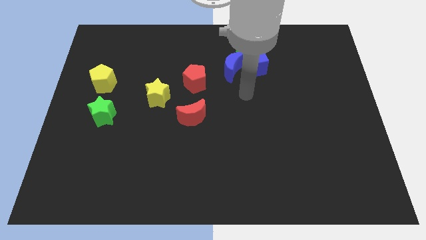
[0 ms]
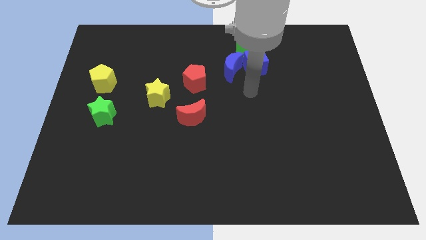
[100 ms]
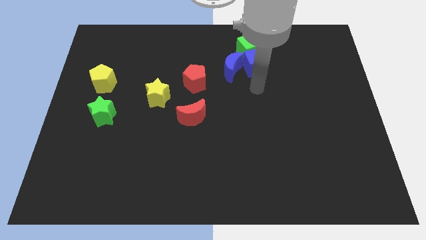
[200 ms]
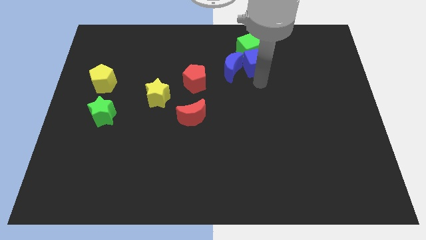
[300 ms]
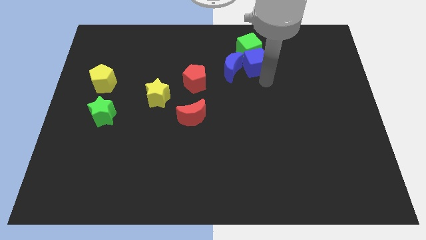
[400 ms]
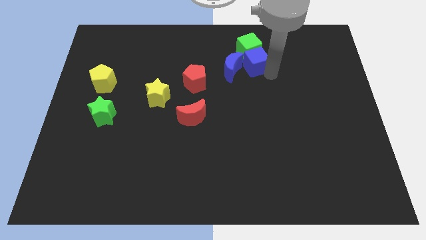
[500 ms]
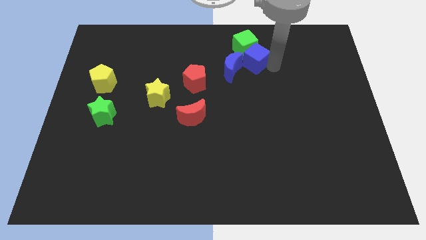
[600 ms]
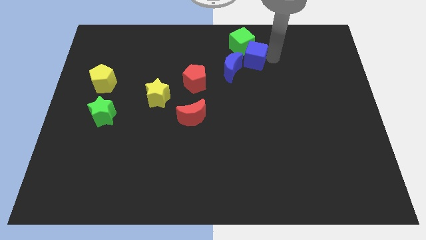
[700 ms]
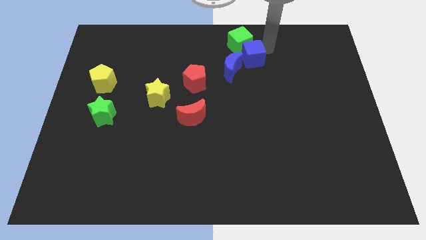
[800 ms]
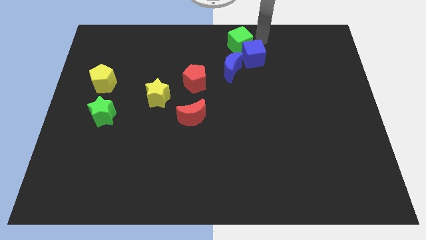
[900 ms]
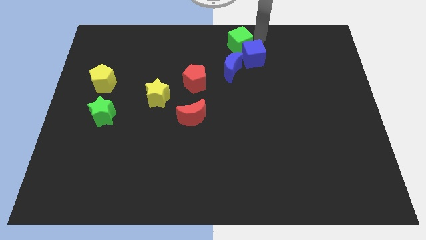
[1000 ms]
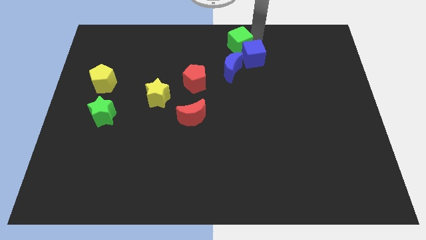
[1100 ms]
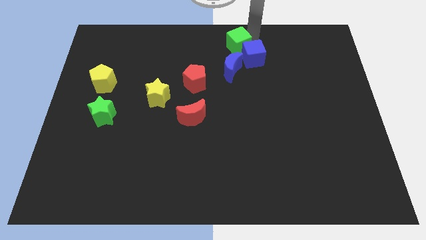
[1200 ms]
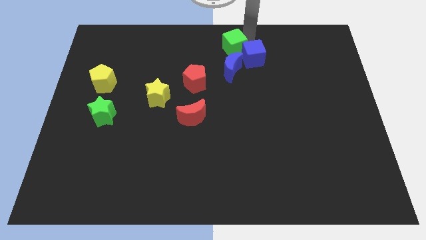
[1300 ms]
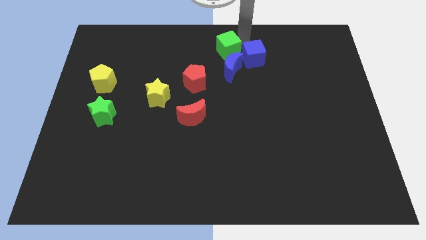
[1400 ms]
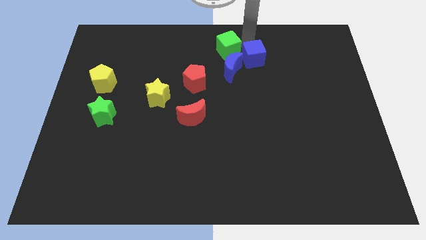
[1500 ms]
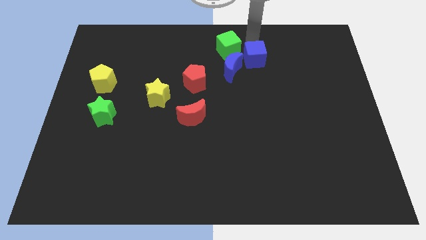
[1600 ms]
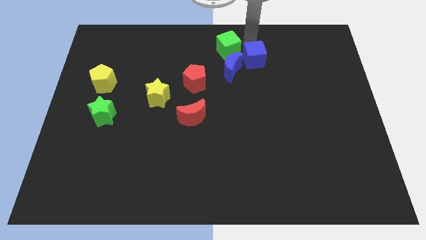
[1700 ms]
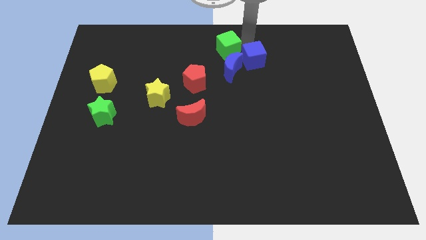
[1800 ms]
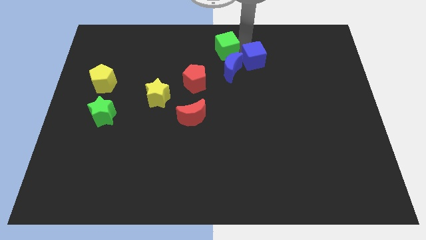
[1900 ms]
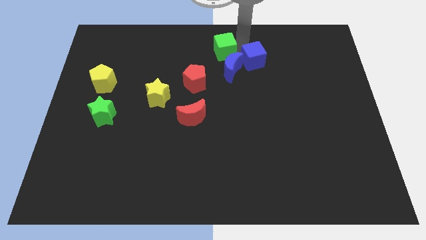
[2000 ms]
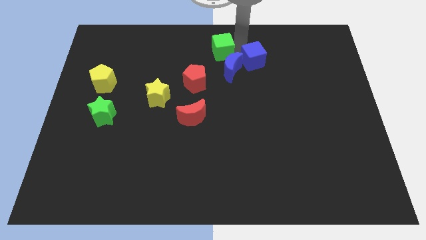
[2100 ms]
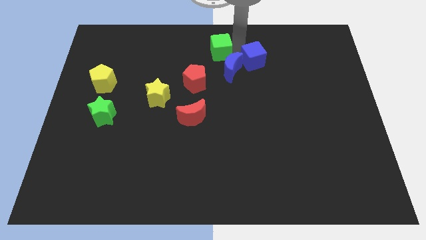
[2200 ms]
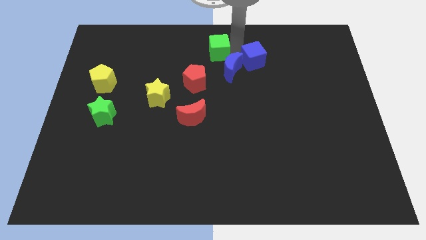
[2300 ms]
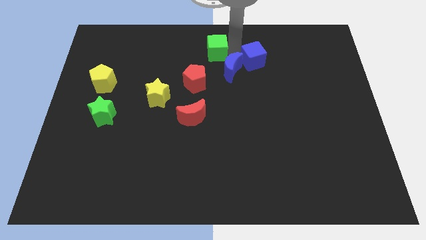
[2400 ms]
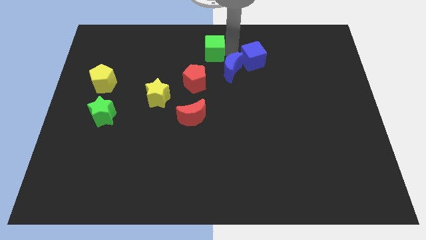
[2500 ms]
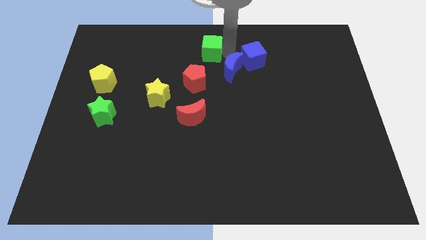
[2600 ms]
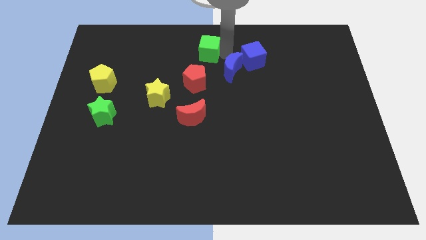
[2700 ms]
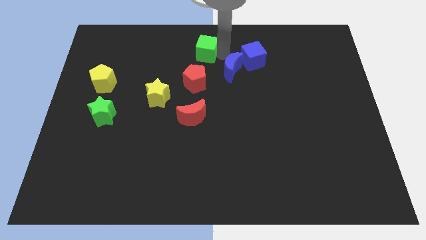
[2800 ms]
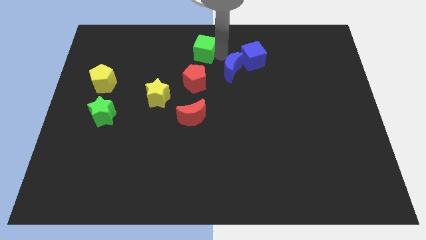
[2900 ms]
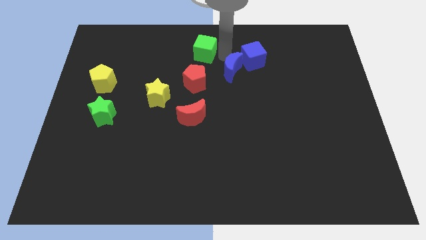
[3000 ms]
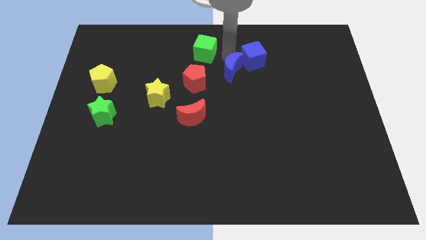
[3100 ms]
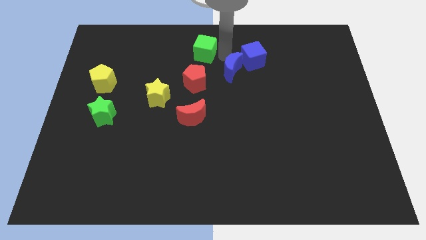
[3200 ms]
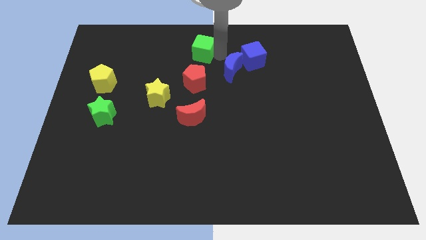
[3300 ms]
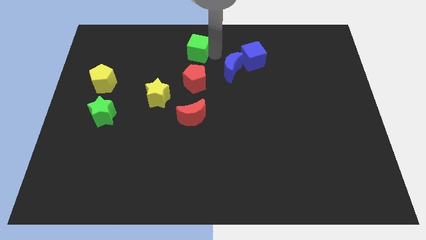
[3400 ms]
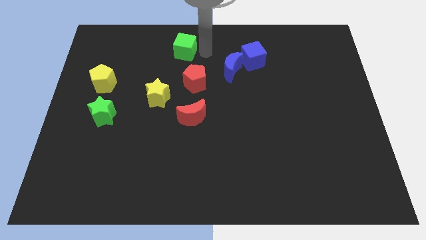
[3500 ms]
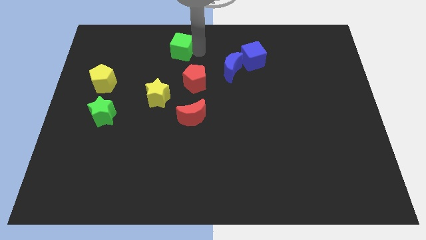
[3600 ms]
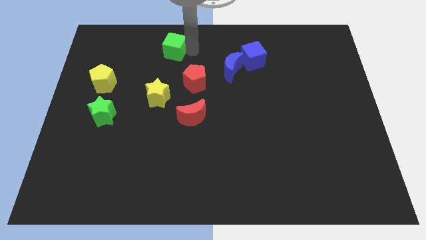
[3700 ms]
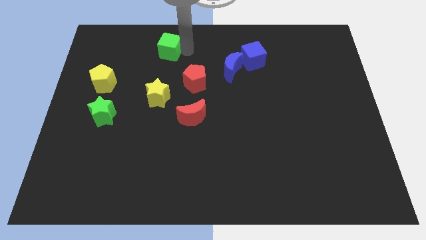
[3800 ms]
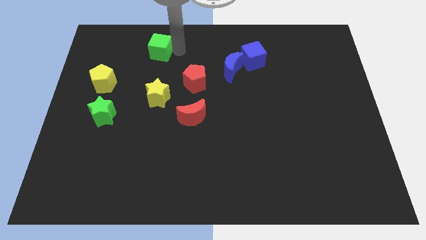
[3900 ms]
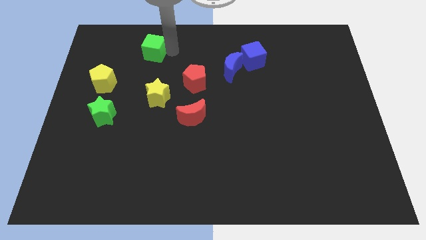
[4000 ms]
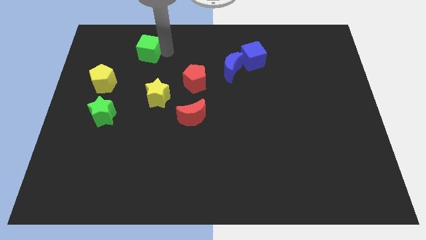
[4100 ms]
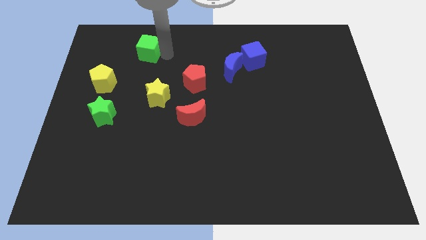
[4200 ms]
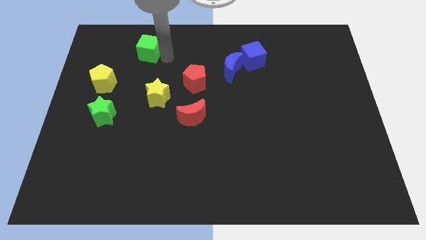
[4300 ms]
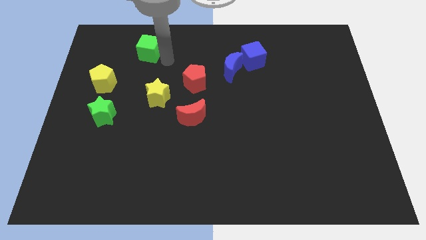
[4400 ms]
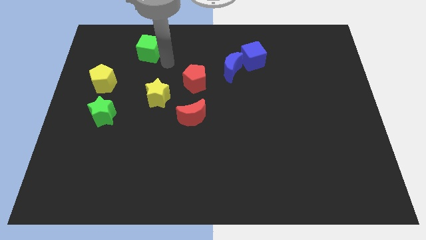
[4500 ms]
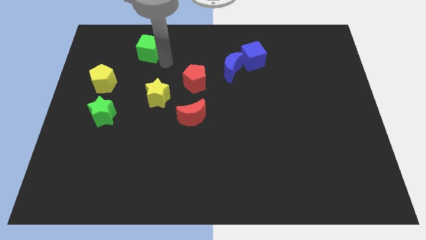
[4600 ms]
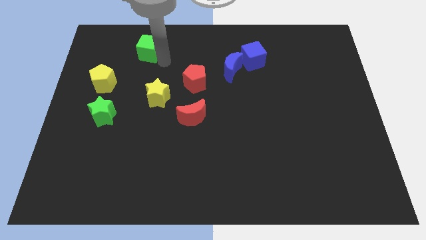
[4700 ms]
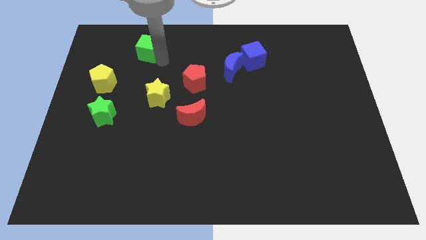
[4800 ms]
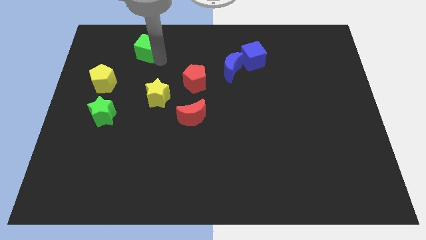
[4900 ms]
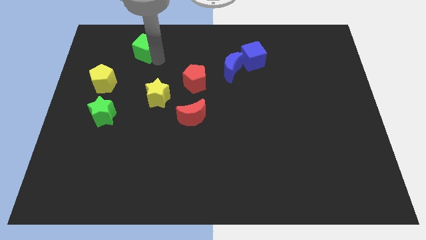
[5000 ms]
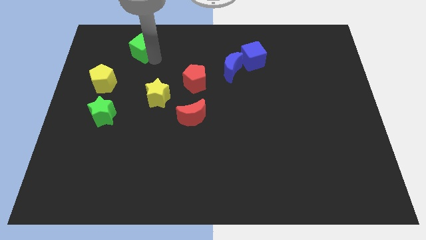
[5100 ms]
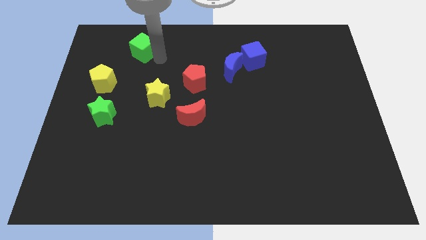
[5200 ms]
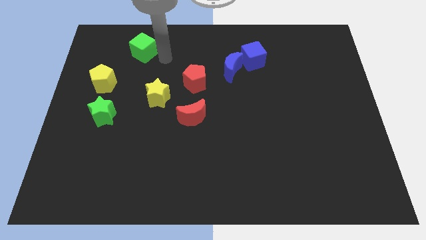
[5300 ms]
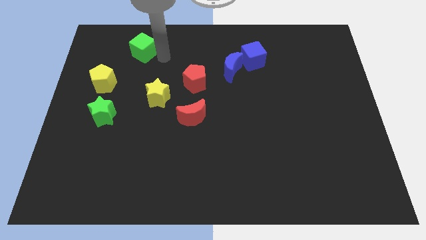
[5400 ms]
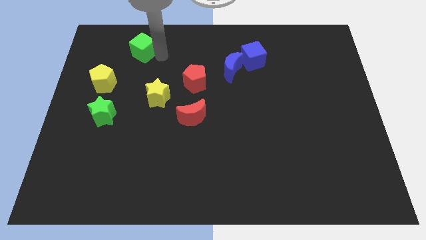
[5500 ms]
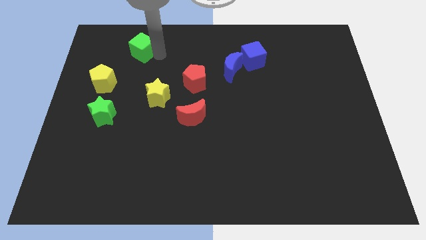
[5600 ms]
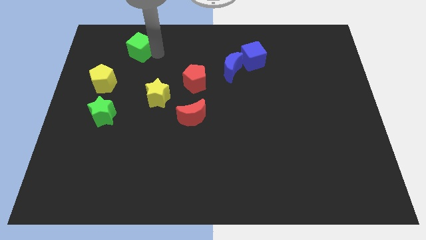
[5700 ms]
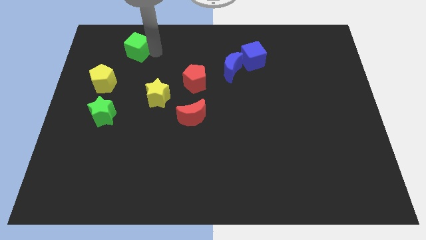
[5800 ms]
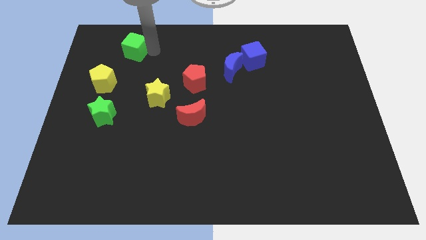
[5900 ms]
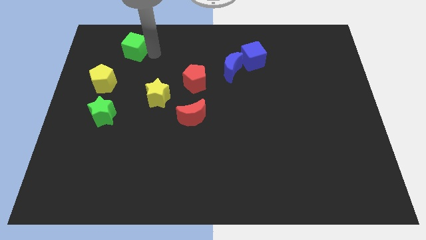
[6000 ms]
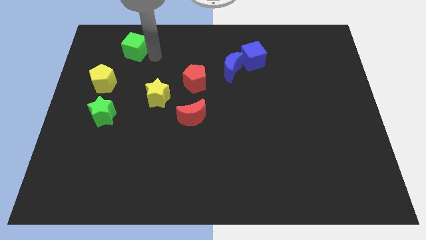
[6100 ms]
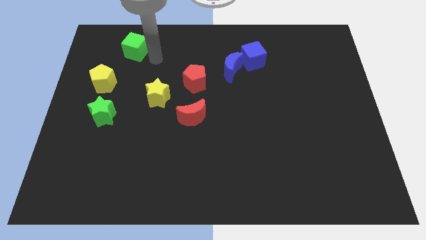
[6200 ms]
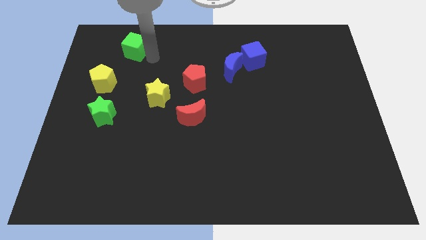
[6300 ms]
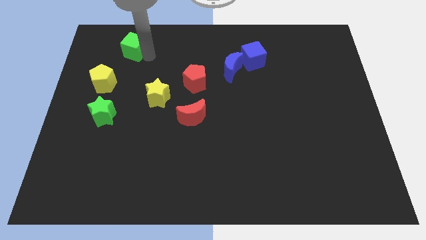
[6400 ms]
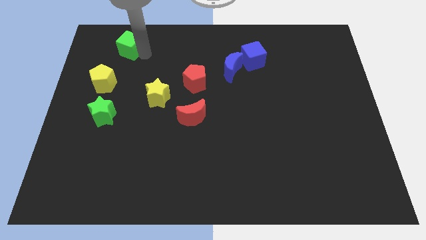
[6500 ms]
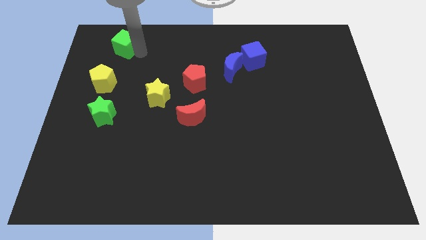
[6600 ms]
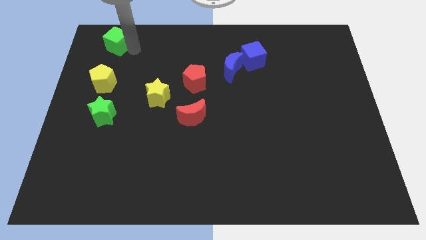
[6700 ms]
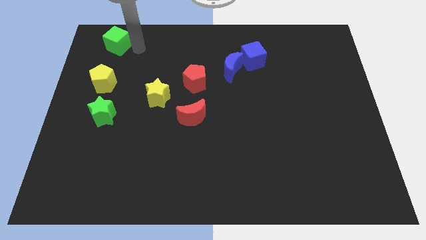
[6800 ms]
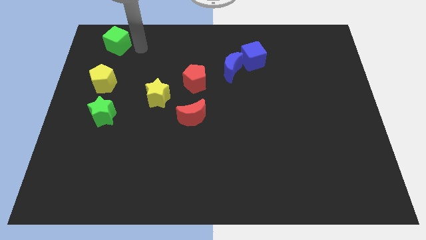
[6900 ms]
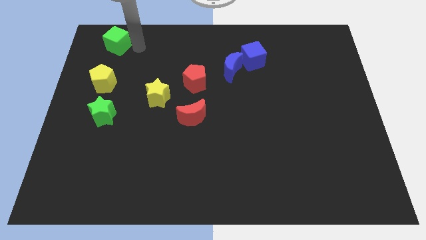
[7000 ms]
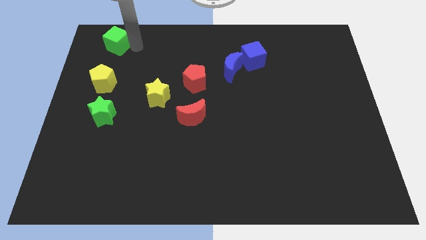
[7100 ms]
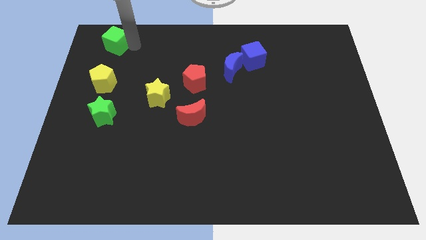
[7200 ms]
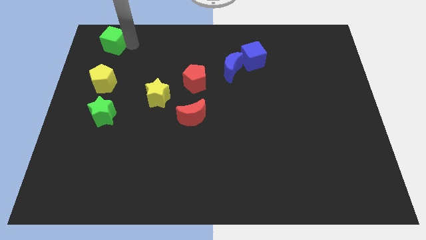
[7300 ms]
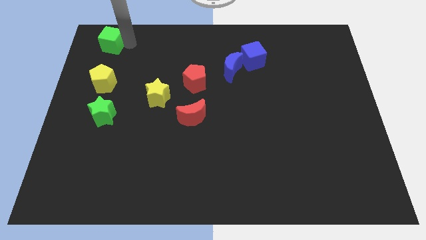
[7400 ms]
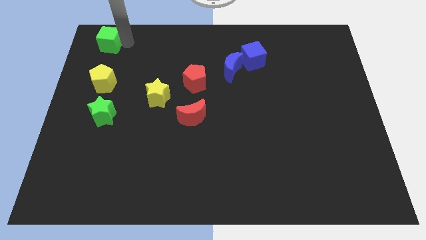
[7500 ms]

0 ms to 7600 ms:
put the green cube to the upper left corner
